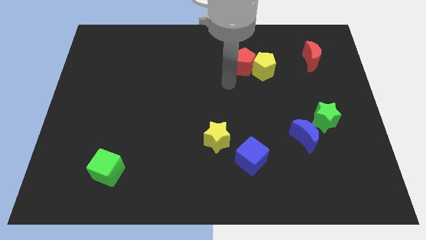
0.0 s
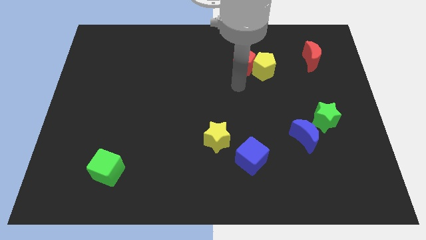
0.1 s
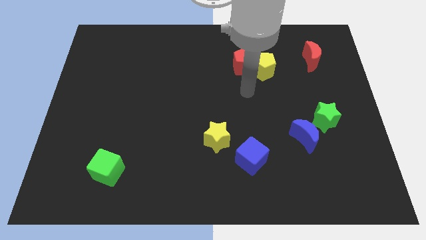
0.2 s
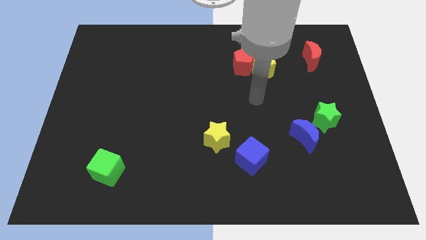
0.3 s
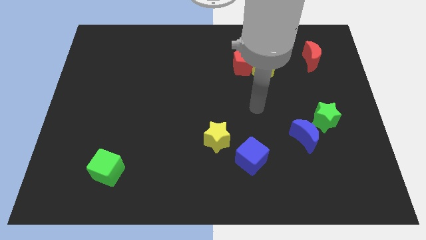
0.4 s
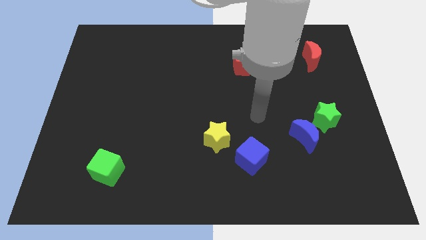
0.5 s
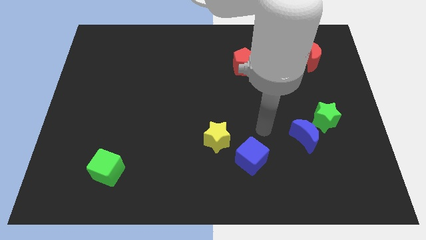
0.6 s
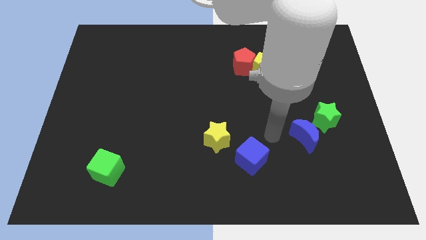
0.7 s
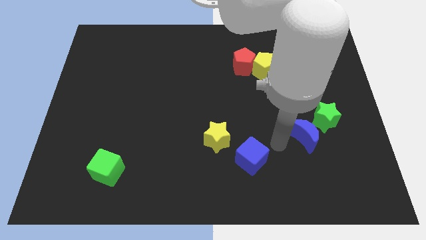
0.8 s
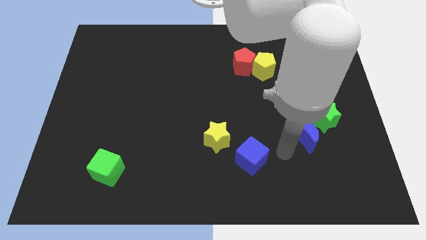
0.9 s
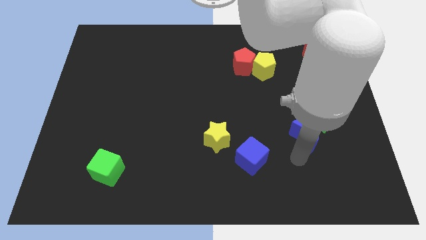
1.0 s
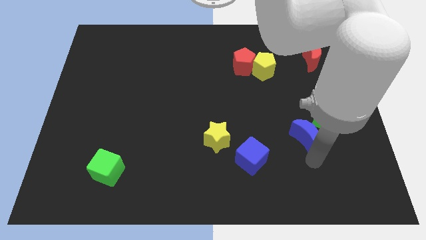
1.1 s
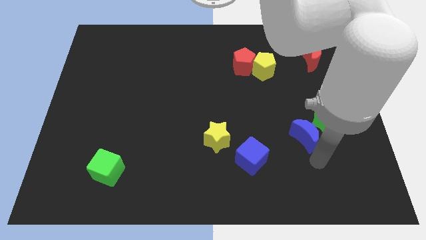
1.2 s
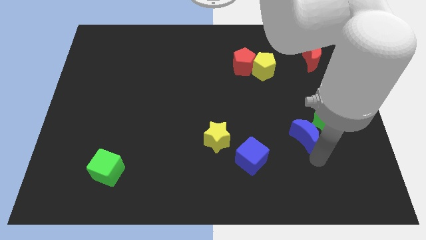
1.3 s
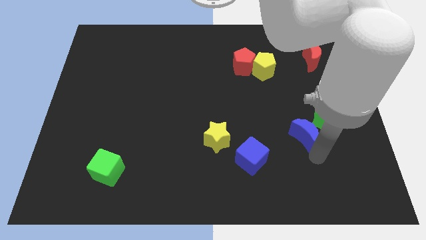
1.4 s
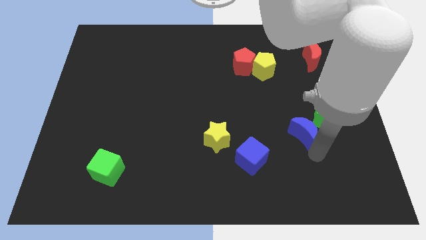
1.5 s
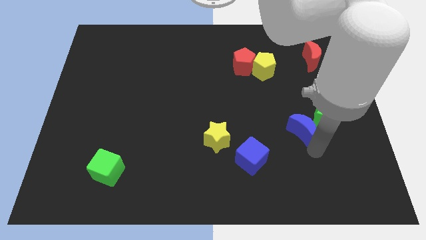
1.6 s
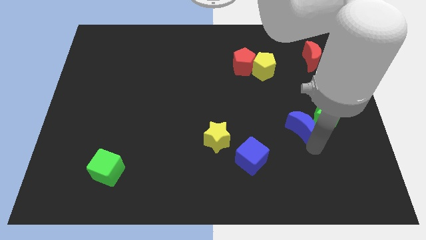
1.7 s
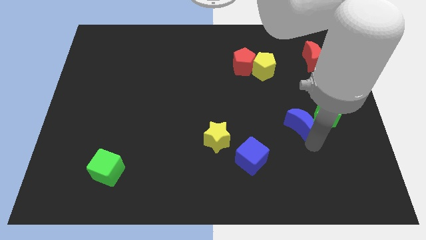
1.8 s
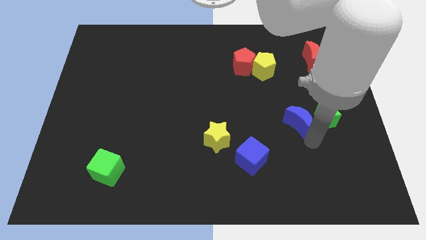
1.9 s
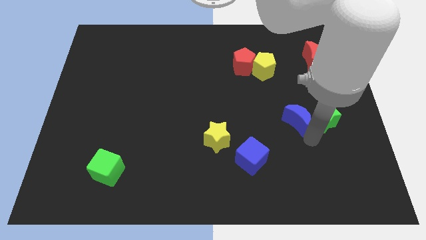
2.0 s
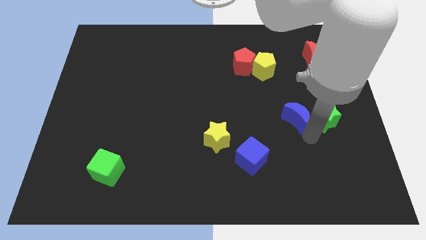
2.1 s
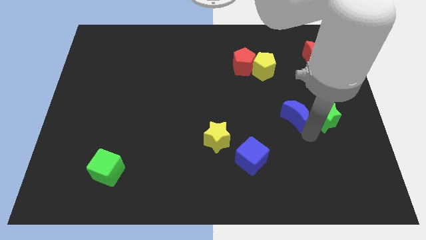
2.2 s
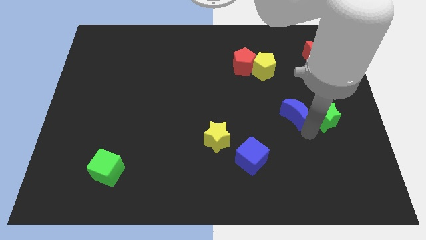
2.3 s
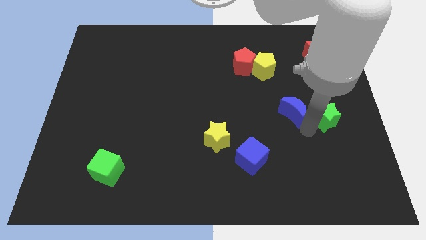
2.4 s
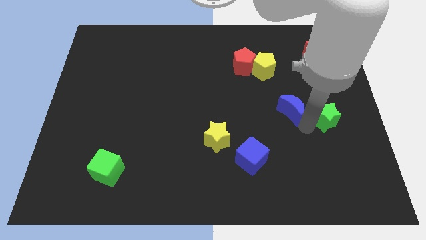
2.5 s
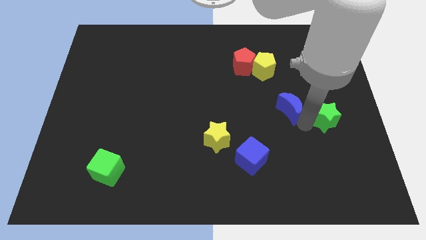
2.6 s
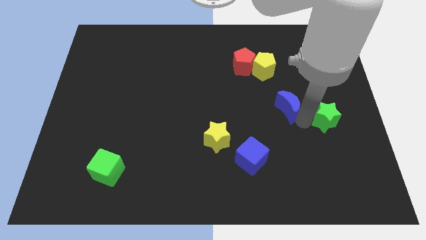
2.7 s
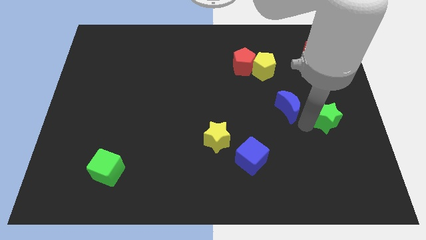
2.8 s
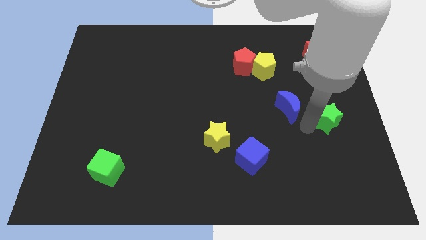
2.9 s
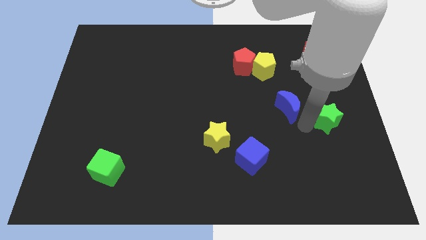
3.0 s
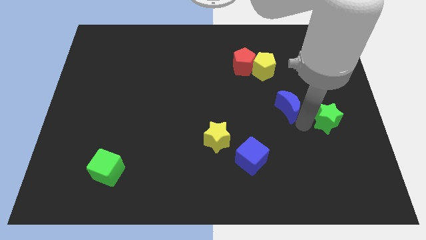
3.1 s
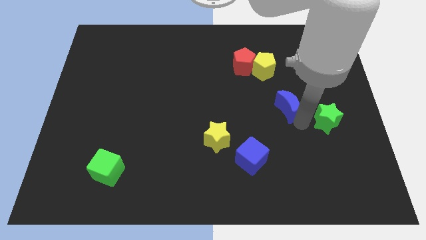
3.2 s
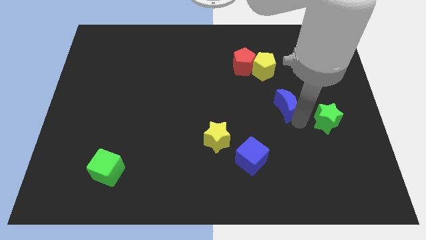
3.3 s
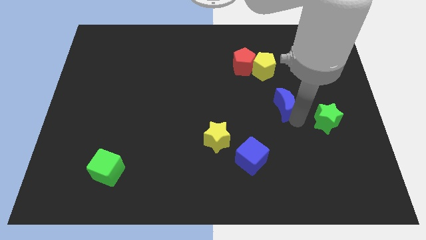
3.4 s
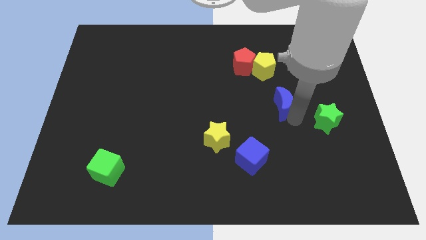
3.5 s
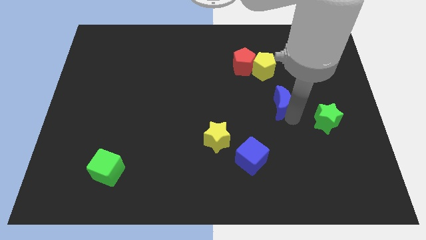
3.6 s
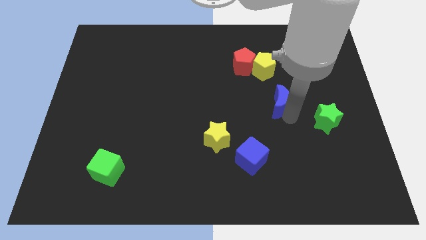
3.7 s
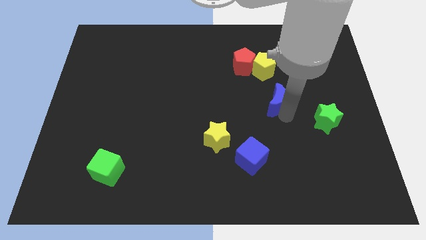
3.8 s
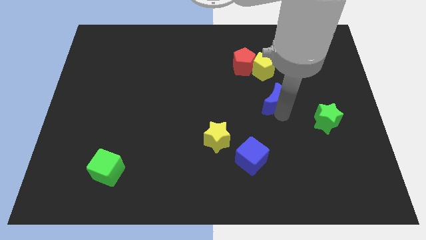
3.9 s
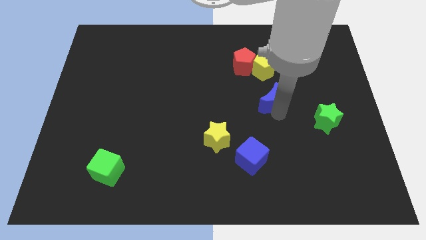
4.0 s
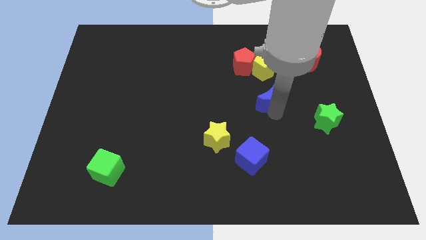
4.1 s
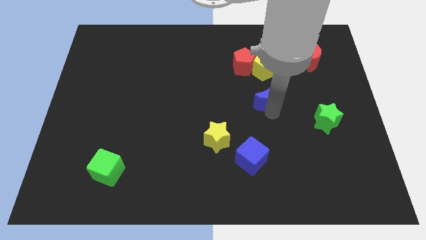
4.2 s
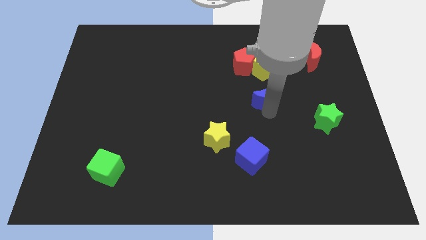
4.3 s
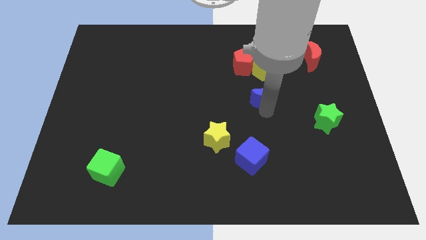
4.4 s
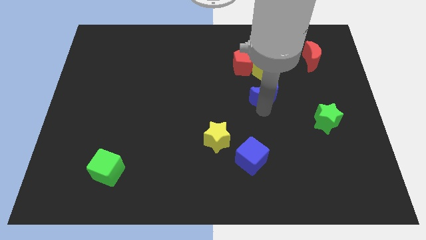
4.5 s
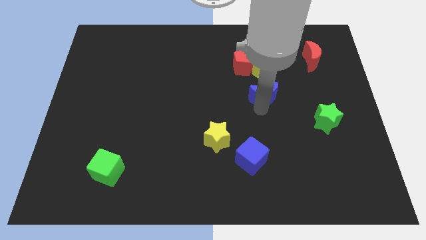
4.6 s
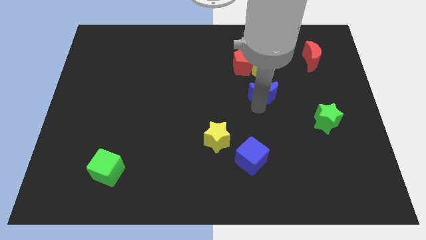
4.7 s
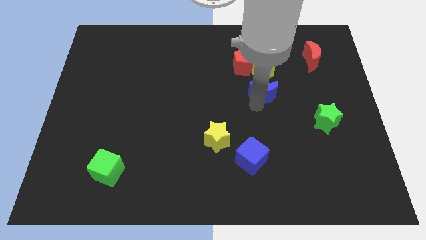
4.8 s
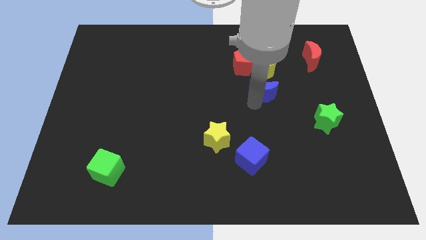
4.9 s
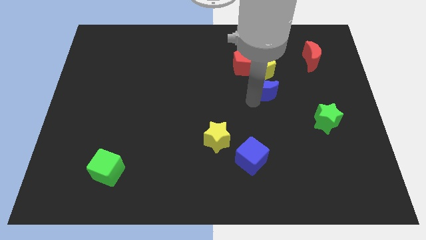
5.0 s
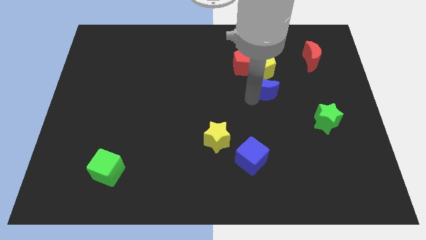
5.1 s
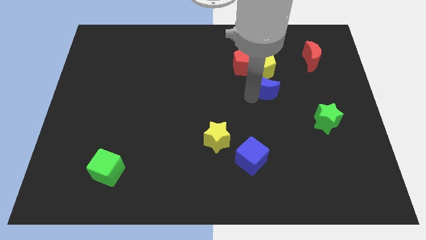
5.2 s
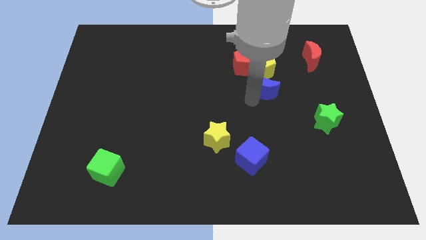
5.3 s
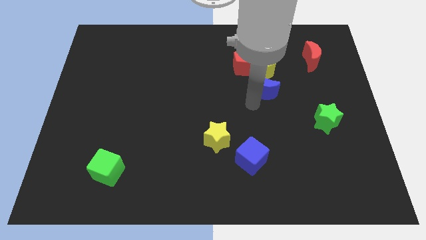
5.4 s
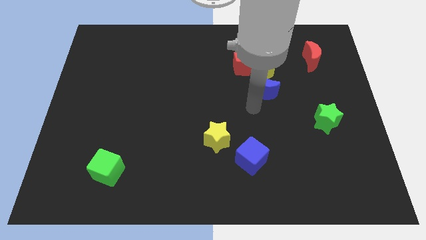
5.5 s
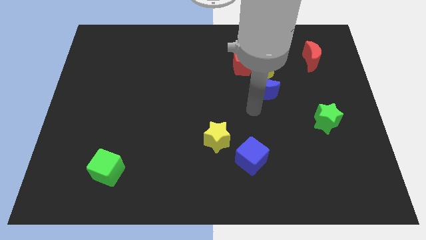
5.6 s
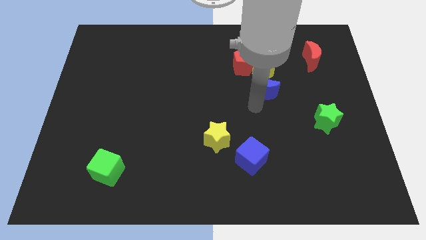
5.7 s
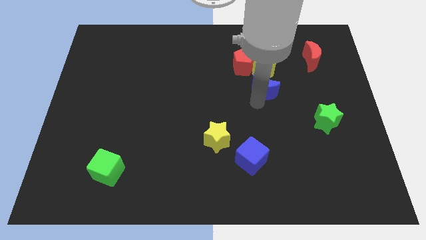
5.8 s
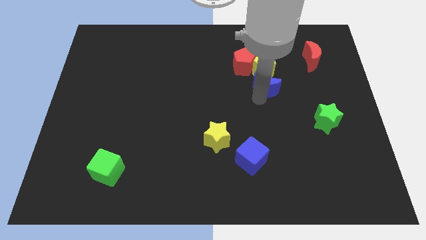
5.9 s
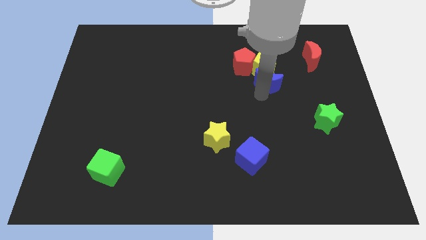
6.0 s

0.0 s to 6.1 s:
slide the blue moon to the yellow pentagon
